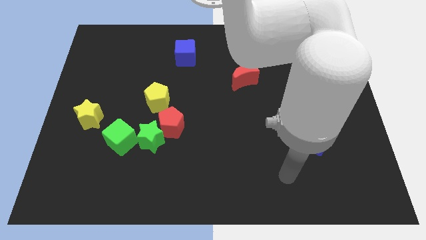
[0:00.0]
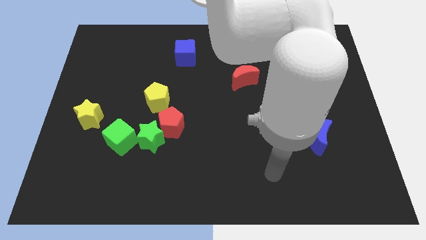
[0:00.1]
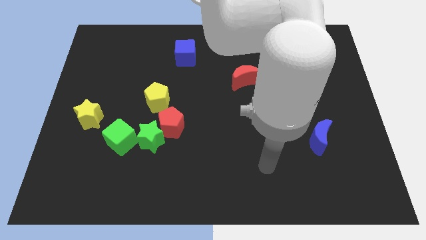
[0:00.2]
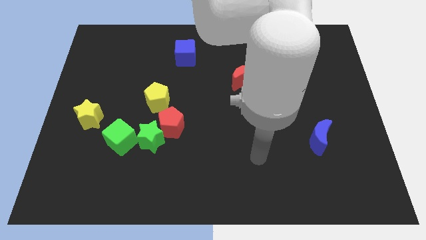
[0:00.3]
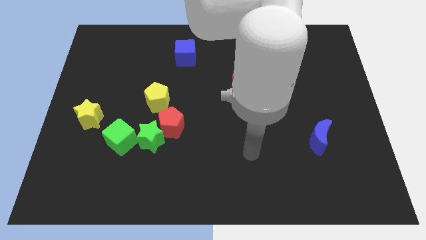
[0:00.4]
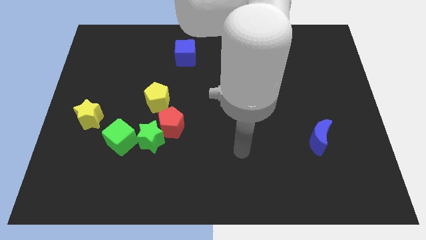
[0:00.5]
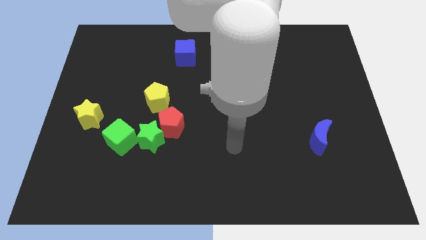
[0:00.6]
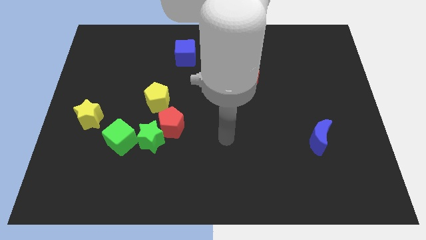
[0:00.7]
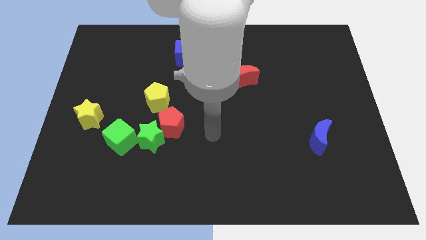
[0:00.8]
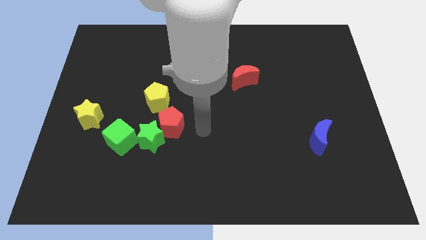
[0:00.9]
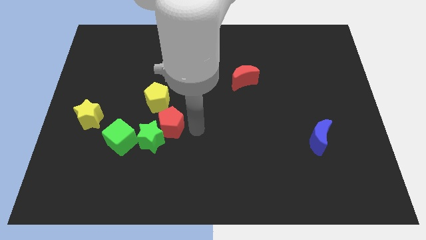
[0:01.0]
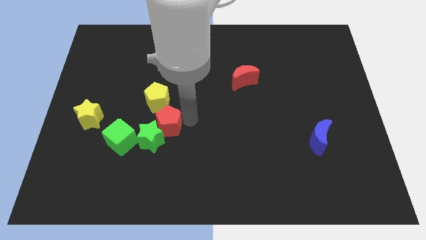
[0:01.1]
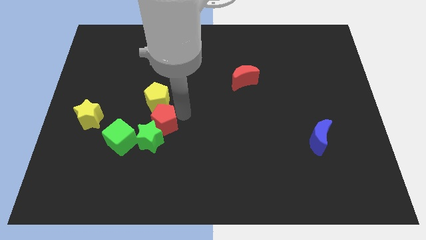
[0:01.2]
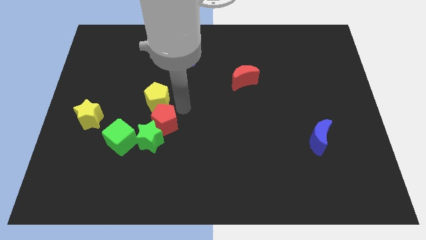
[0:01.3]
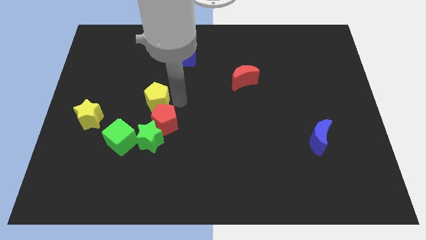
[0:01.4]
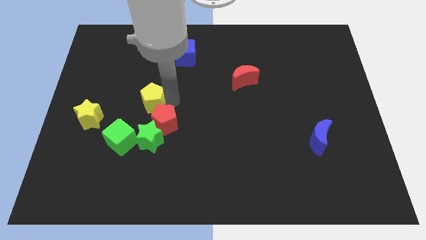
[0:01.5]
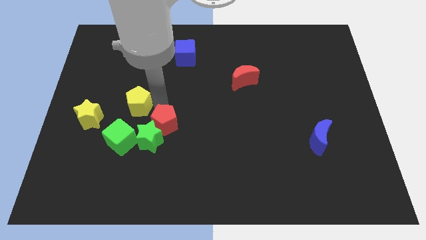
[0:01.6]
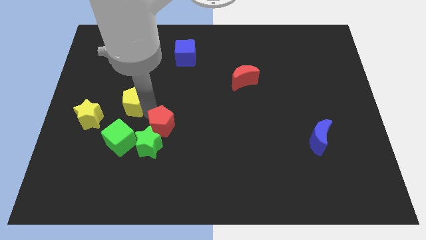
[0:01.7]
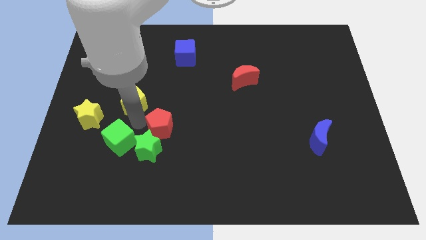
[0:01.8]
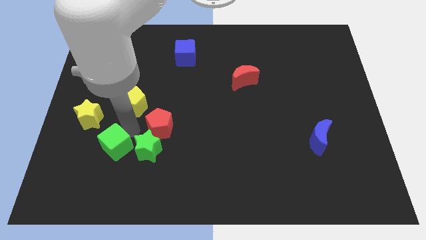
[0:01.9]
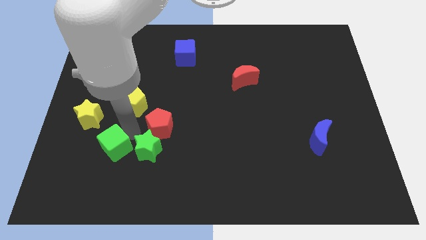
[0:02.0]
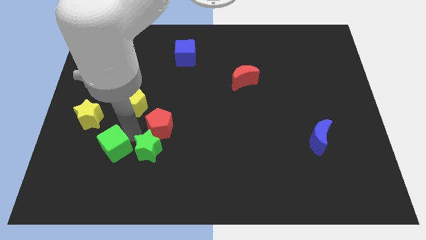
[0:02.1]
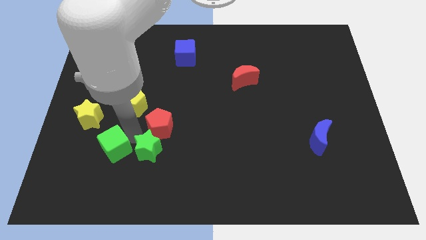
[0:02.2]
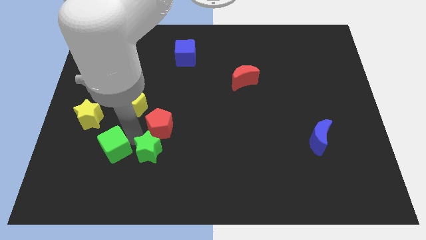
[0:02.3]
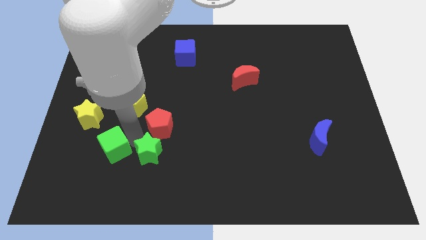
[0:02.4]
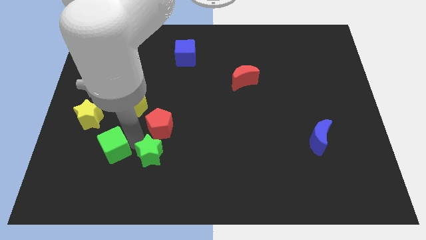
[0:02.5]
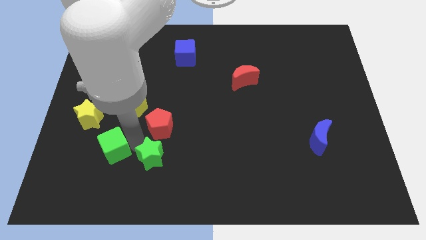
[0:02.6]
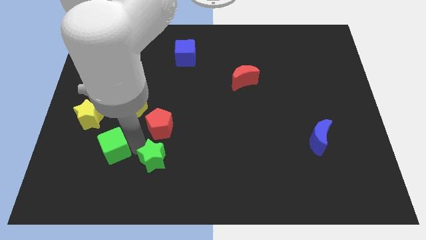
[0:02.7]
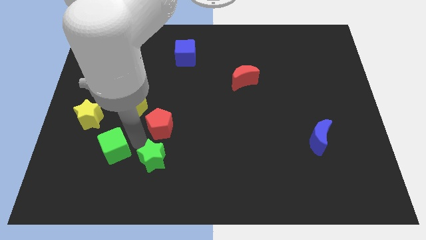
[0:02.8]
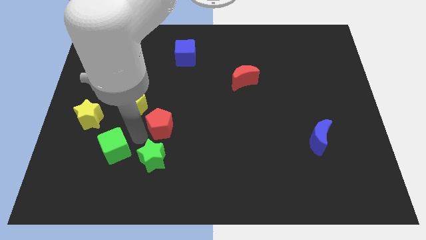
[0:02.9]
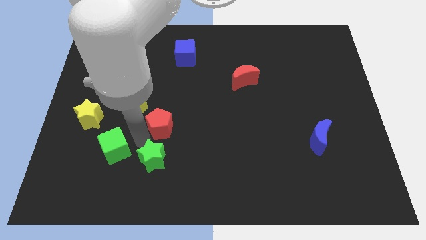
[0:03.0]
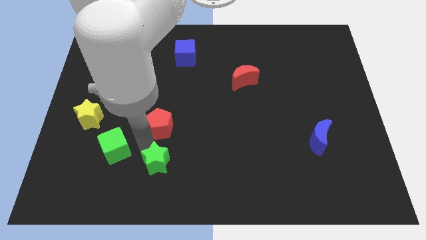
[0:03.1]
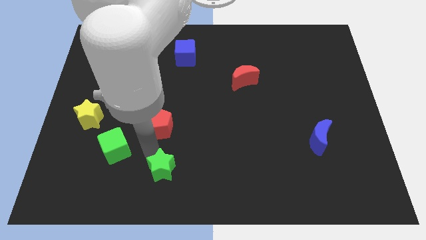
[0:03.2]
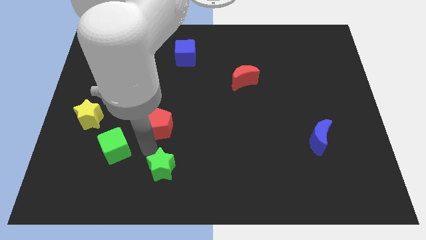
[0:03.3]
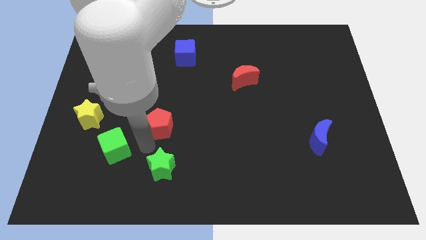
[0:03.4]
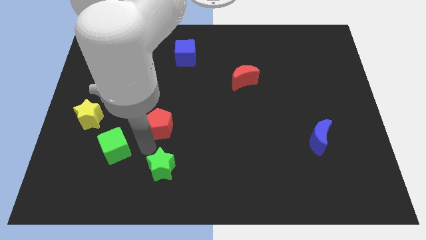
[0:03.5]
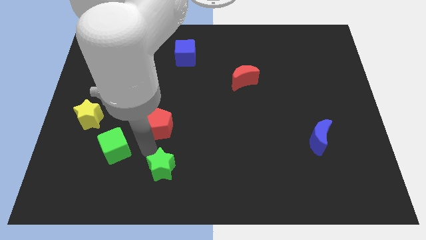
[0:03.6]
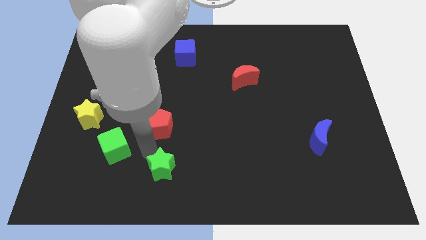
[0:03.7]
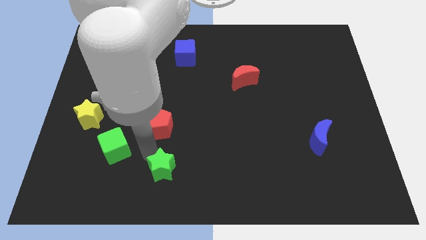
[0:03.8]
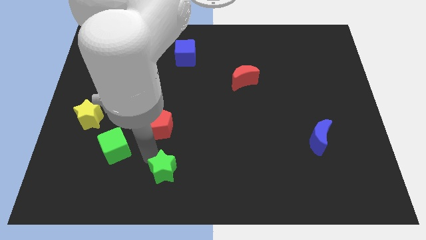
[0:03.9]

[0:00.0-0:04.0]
pull the green star apart from the red pentagon and green cube

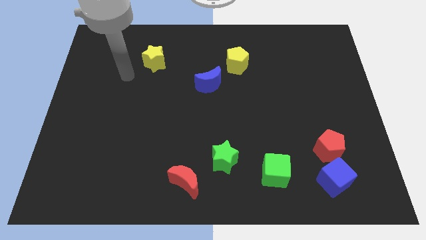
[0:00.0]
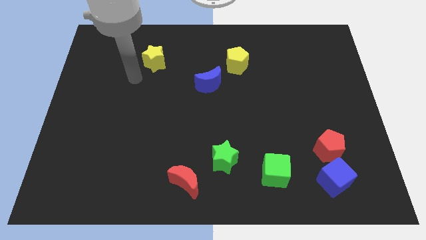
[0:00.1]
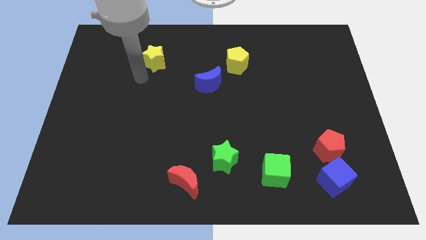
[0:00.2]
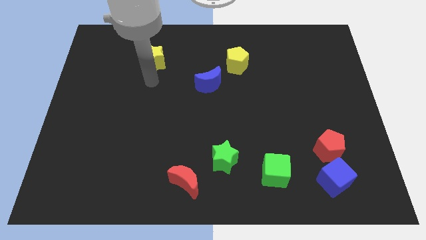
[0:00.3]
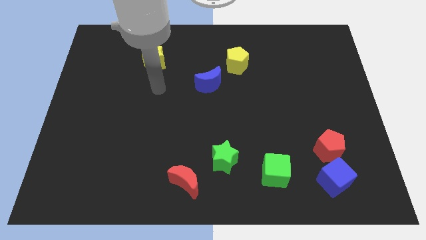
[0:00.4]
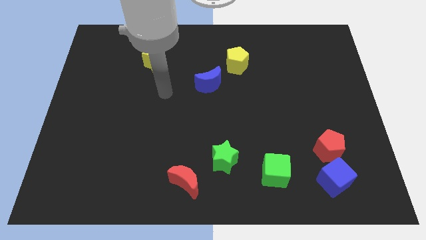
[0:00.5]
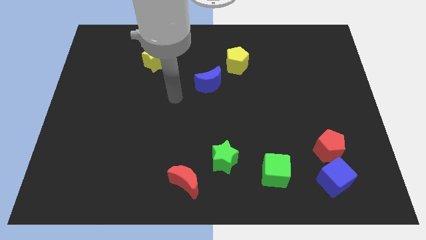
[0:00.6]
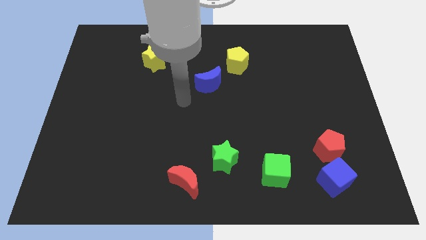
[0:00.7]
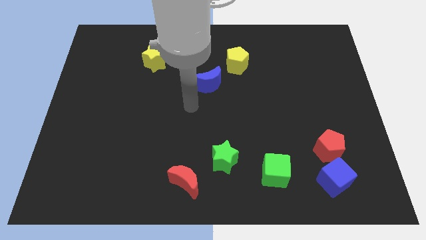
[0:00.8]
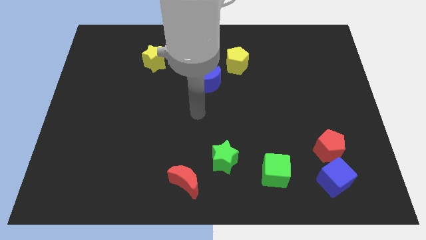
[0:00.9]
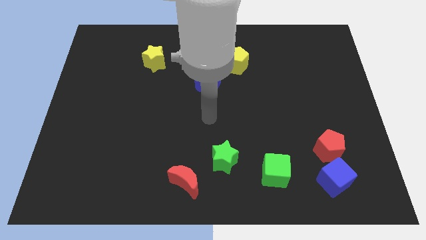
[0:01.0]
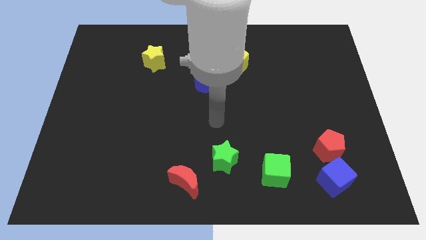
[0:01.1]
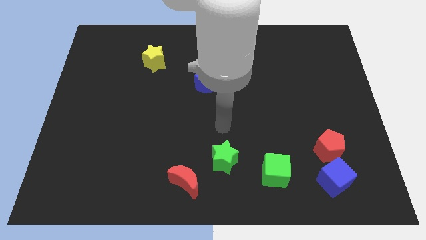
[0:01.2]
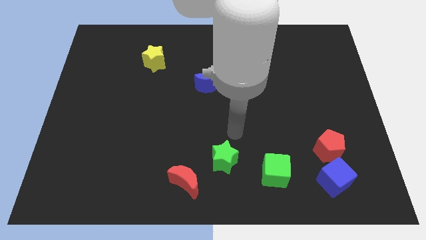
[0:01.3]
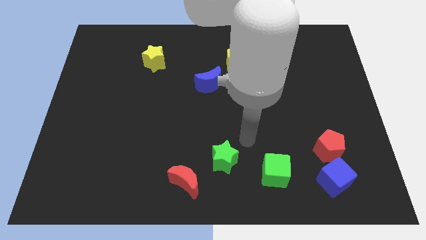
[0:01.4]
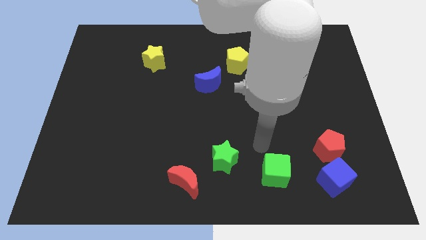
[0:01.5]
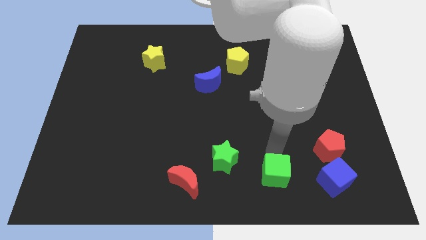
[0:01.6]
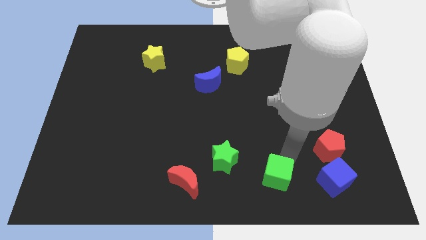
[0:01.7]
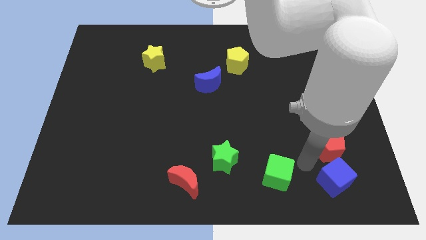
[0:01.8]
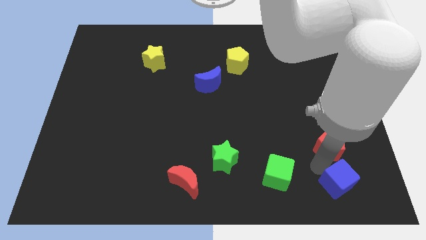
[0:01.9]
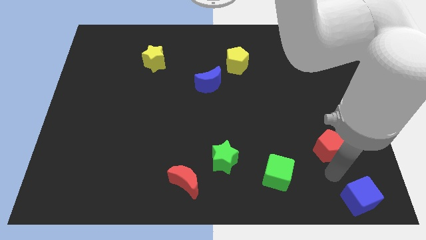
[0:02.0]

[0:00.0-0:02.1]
separate the red pentagon from the blue cube

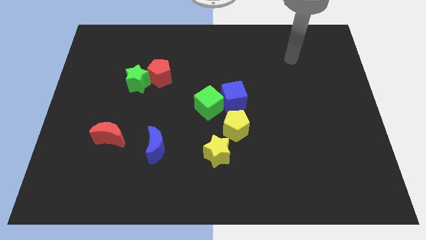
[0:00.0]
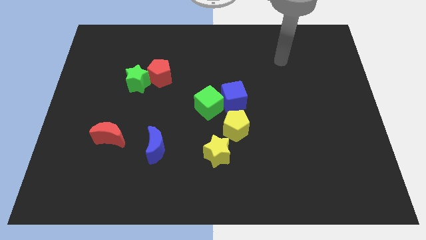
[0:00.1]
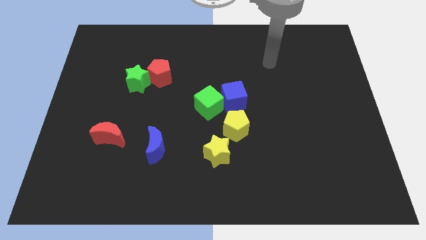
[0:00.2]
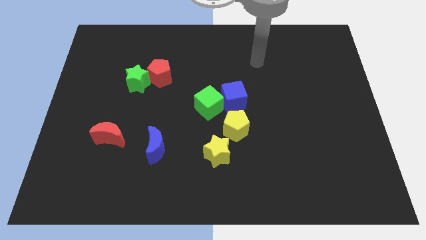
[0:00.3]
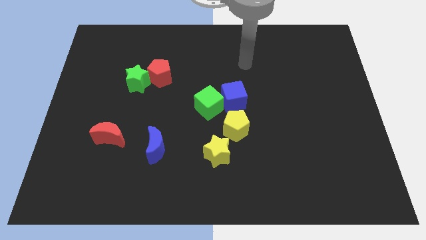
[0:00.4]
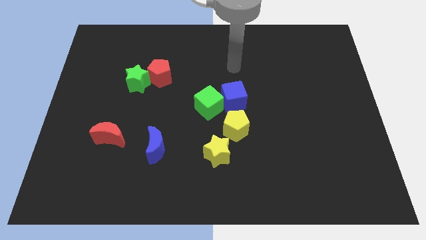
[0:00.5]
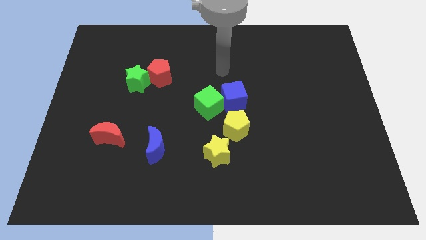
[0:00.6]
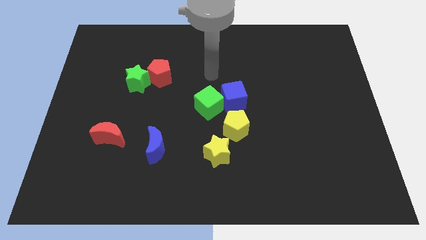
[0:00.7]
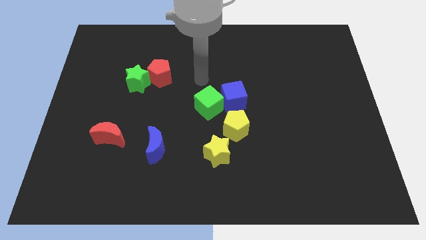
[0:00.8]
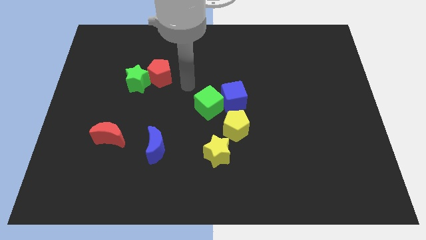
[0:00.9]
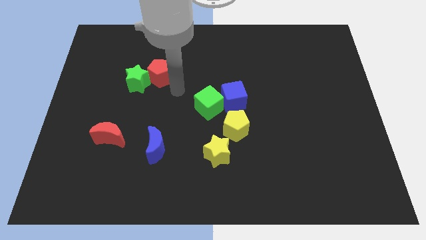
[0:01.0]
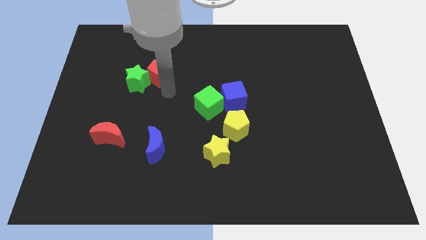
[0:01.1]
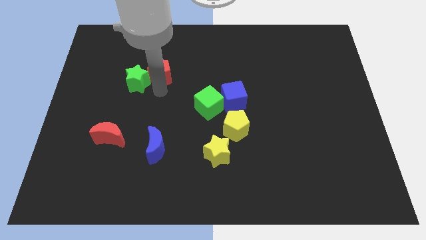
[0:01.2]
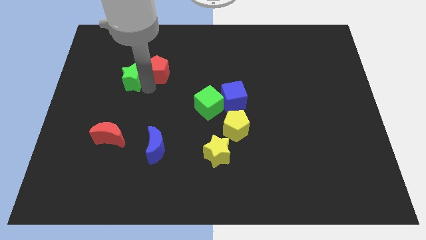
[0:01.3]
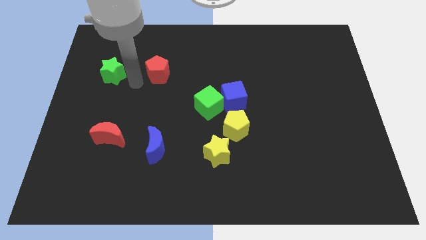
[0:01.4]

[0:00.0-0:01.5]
separate the red pentagon from the green star

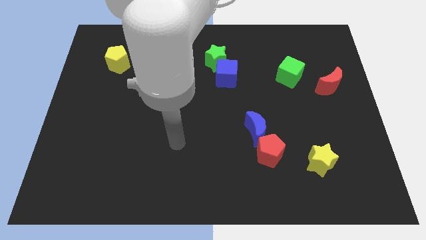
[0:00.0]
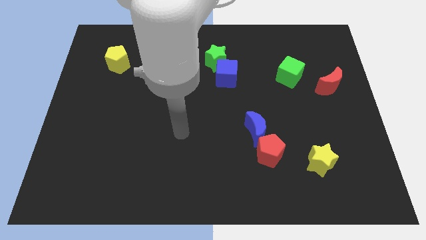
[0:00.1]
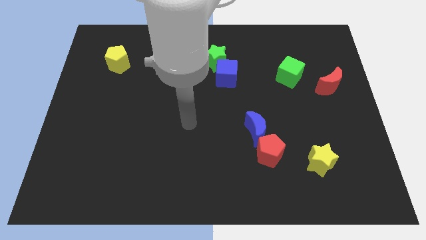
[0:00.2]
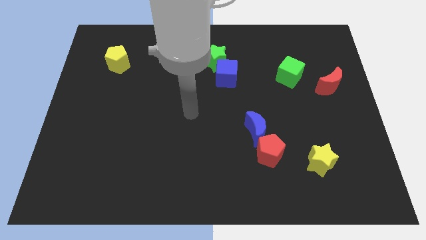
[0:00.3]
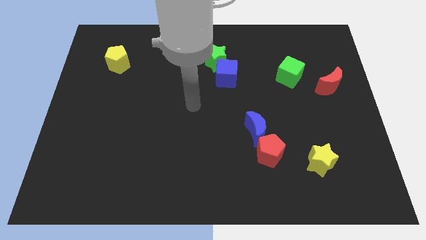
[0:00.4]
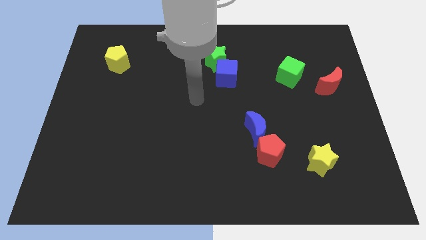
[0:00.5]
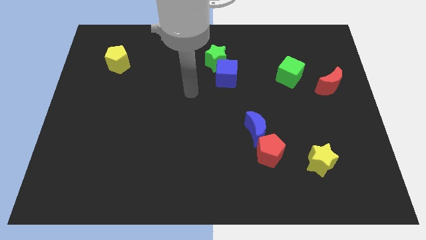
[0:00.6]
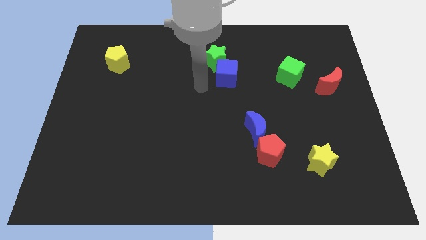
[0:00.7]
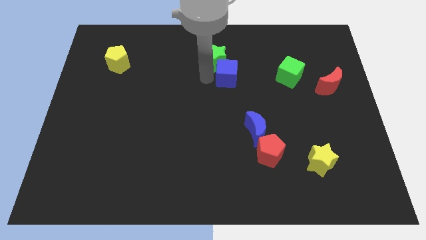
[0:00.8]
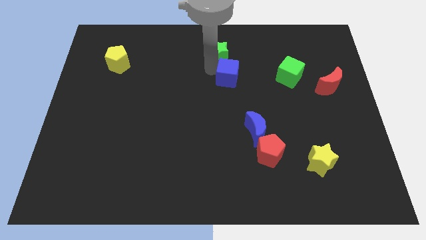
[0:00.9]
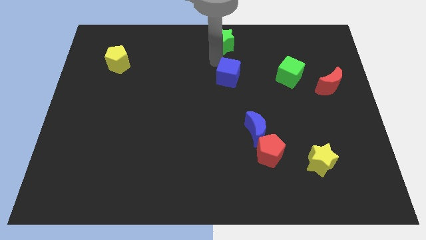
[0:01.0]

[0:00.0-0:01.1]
separate the blue cube from the green star

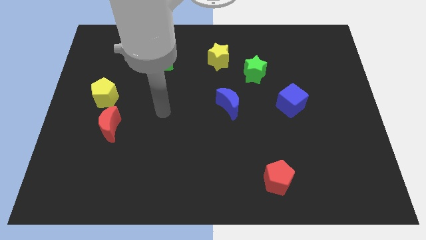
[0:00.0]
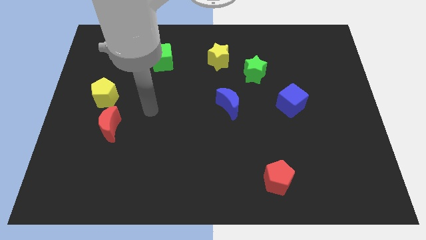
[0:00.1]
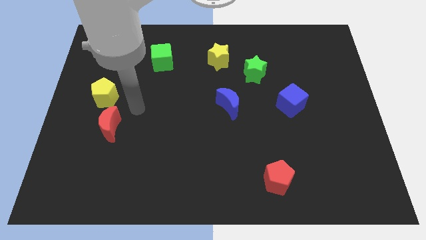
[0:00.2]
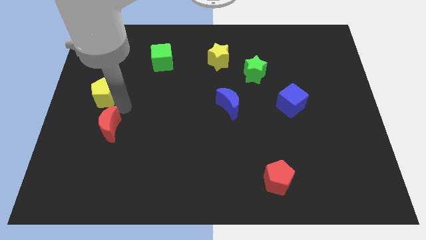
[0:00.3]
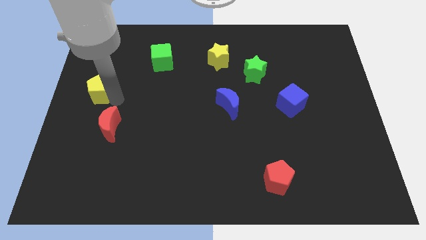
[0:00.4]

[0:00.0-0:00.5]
pull the red moon apart from the yellow pentagon
